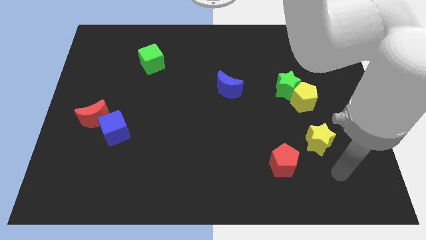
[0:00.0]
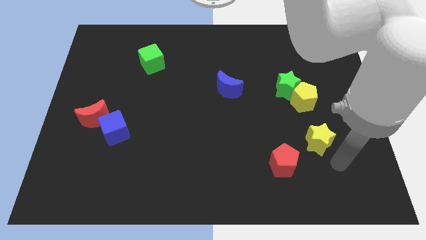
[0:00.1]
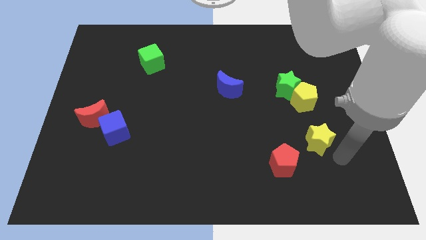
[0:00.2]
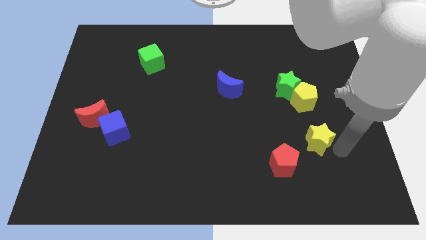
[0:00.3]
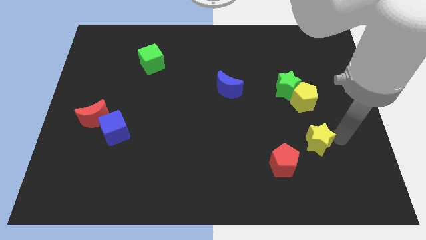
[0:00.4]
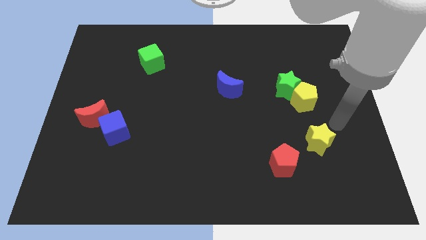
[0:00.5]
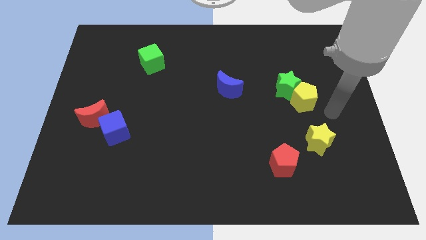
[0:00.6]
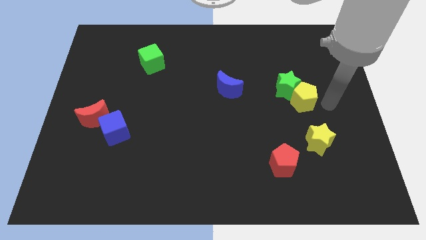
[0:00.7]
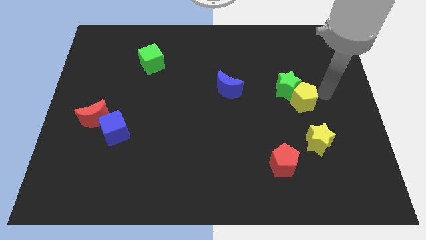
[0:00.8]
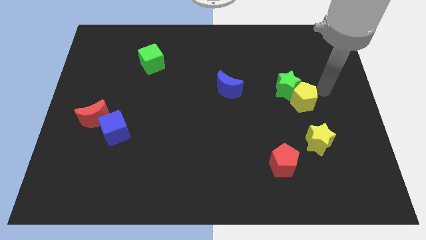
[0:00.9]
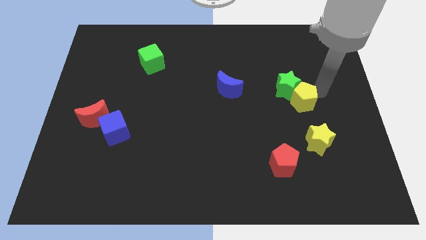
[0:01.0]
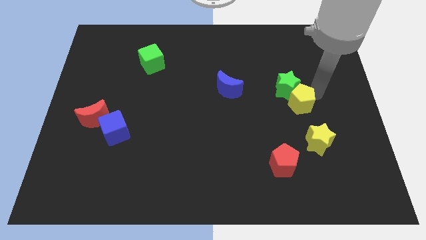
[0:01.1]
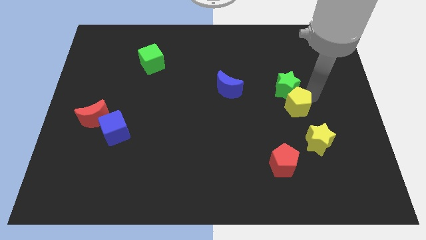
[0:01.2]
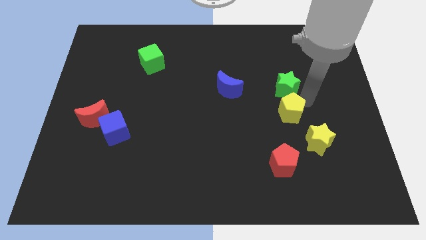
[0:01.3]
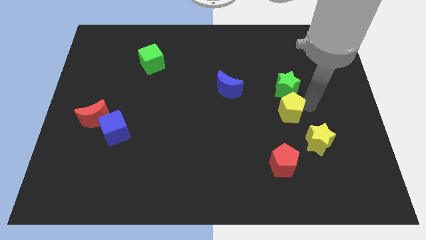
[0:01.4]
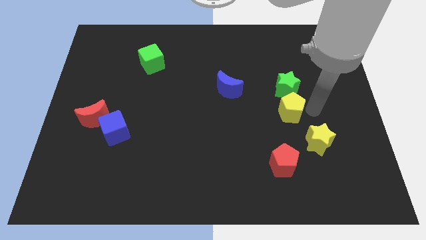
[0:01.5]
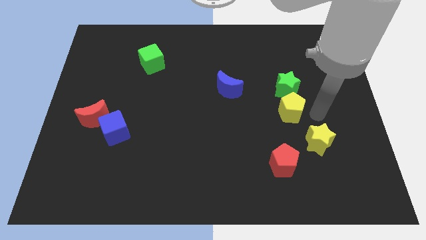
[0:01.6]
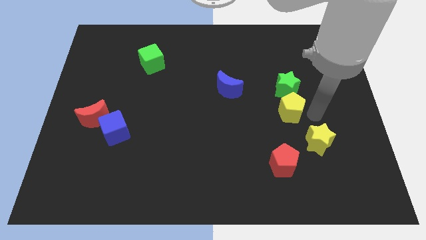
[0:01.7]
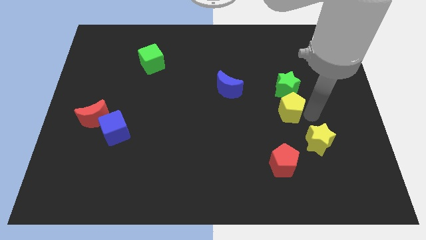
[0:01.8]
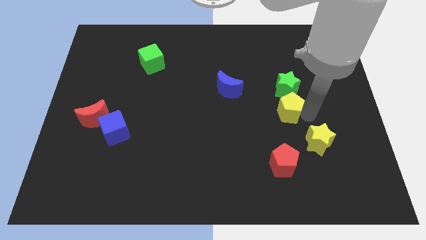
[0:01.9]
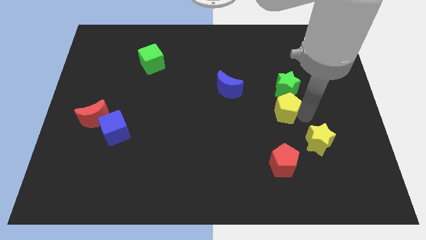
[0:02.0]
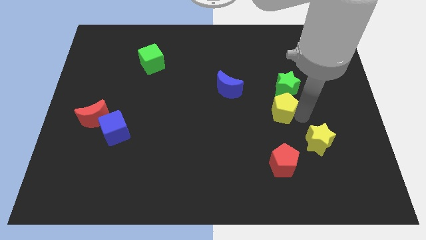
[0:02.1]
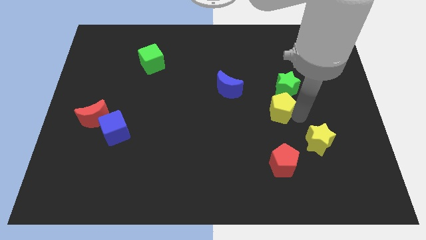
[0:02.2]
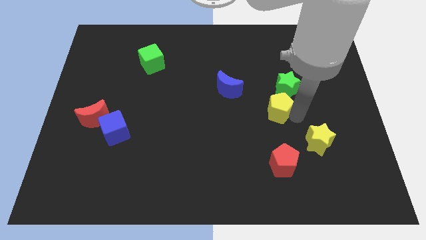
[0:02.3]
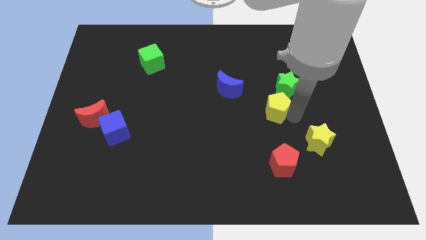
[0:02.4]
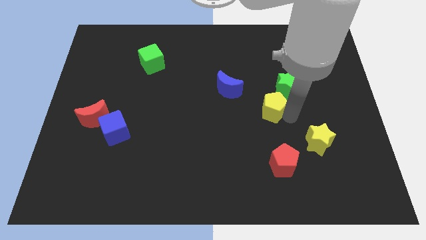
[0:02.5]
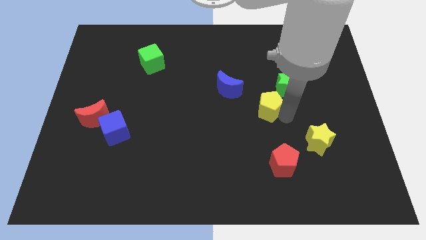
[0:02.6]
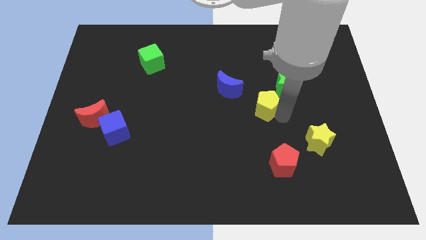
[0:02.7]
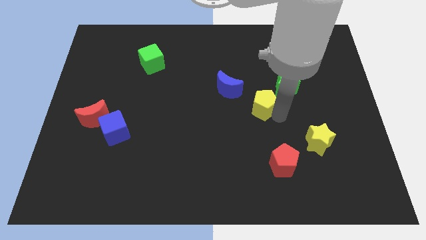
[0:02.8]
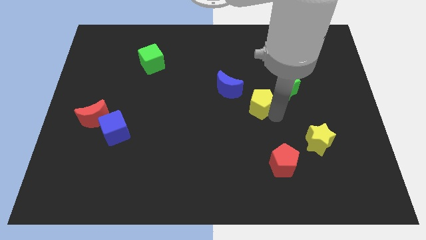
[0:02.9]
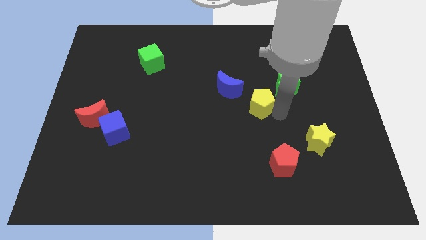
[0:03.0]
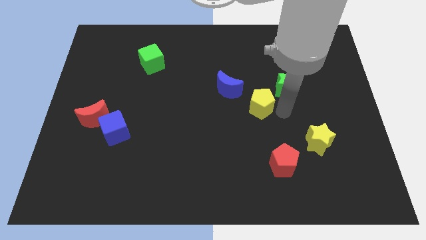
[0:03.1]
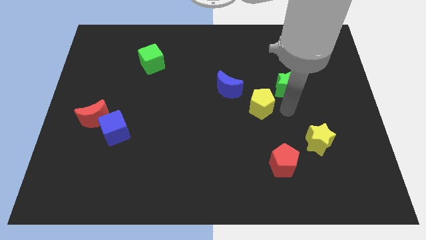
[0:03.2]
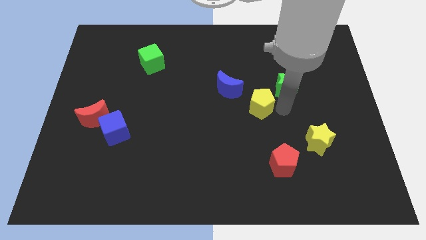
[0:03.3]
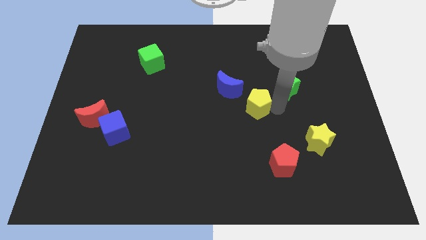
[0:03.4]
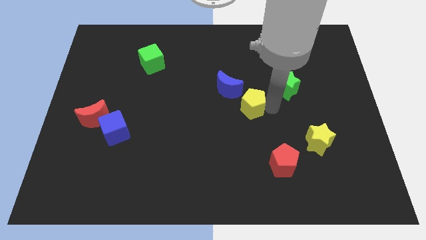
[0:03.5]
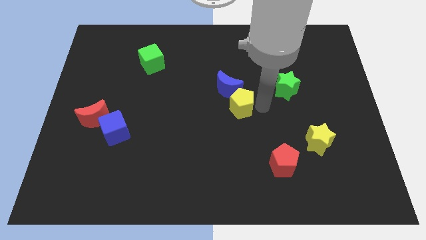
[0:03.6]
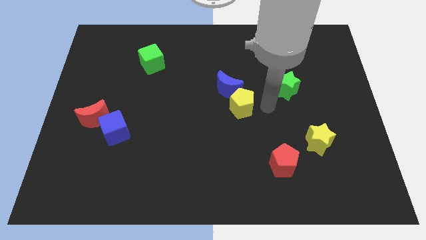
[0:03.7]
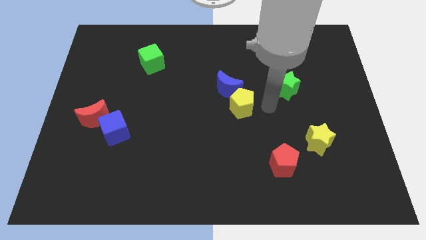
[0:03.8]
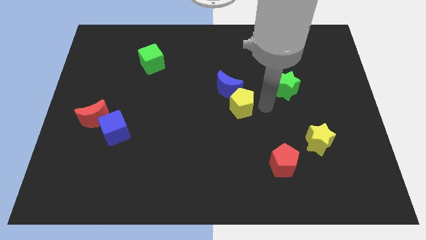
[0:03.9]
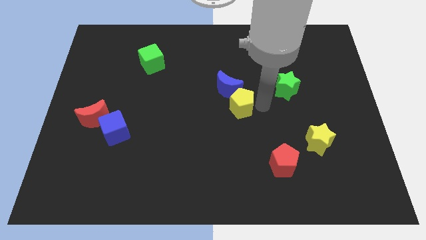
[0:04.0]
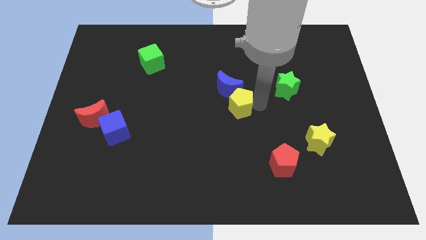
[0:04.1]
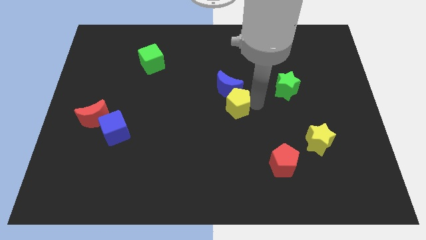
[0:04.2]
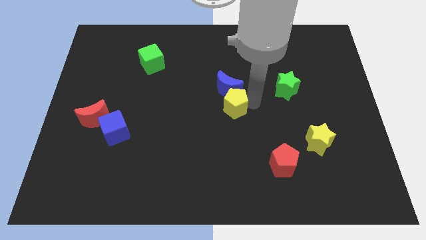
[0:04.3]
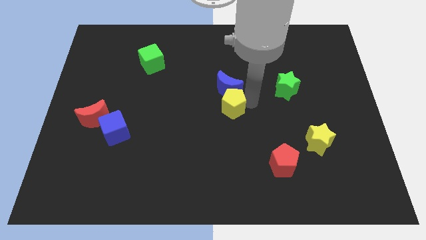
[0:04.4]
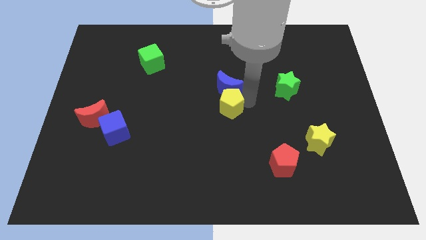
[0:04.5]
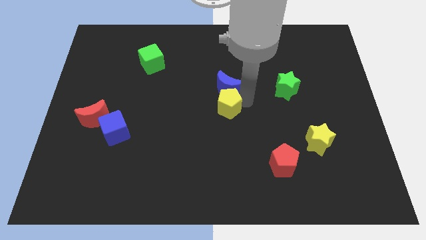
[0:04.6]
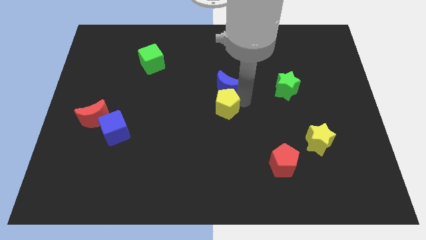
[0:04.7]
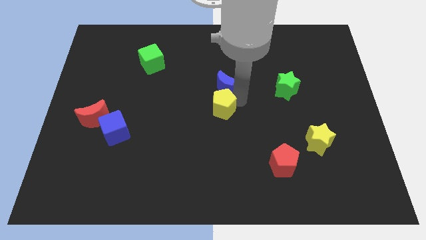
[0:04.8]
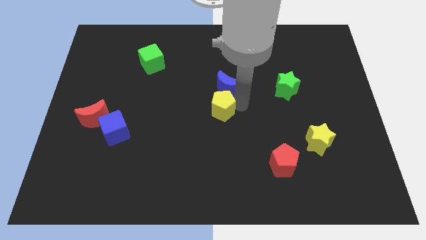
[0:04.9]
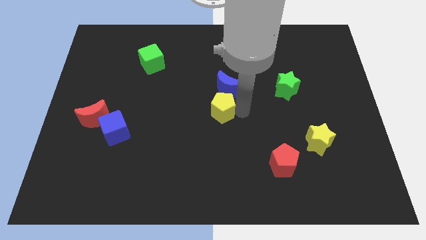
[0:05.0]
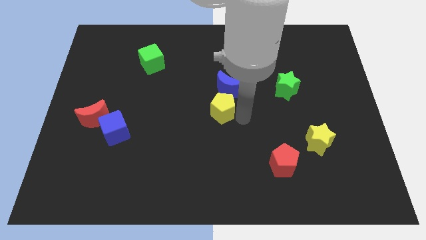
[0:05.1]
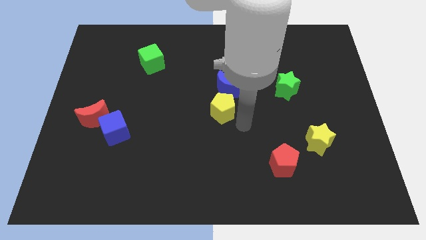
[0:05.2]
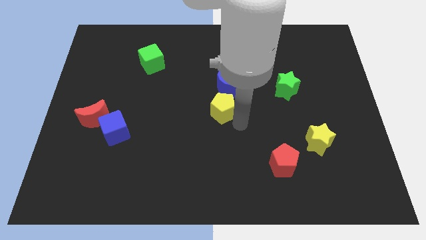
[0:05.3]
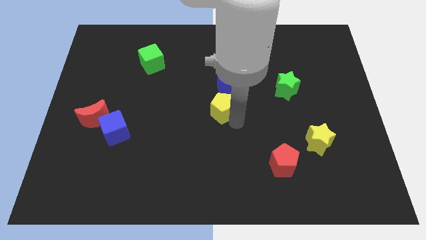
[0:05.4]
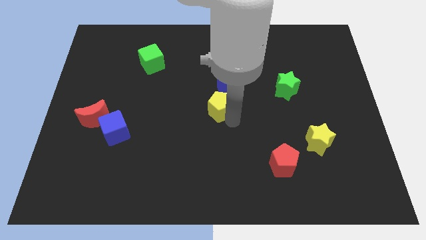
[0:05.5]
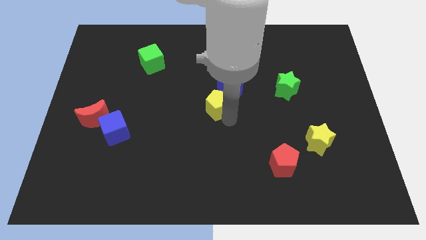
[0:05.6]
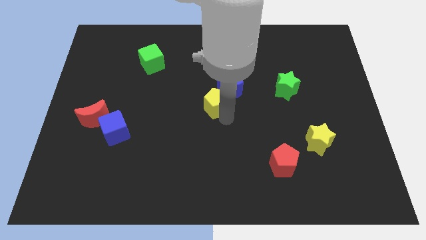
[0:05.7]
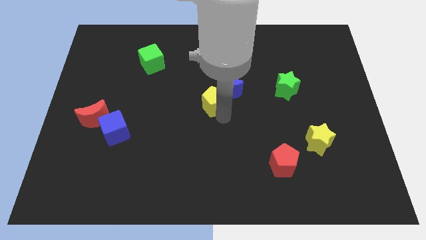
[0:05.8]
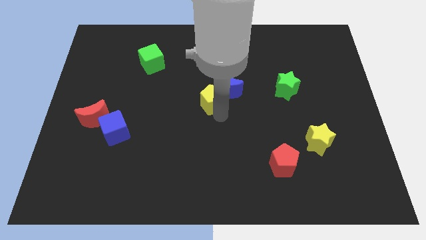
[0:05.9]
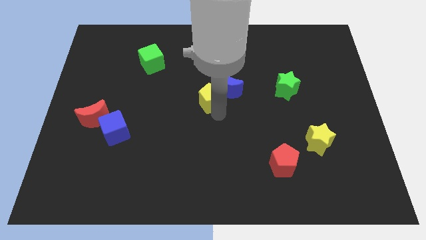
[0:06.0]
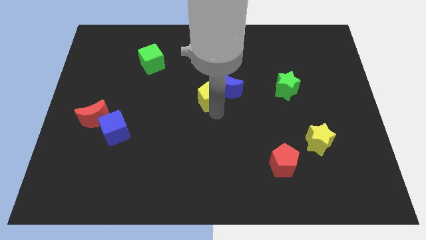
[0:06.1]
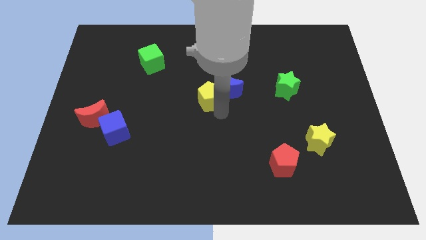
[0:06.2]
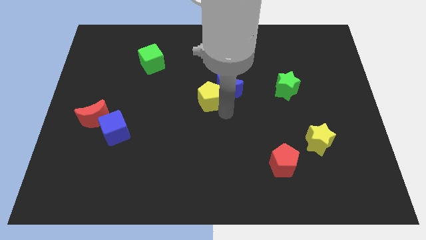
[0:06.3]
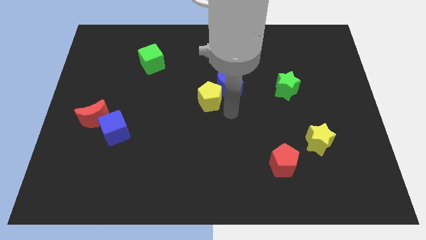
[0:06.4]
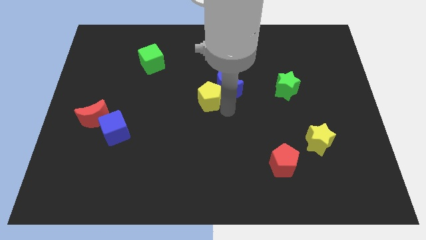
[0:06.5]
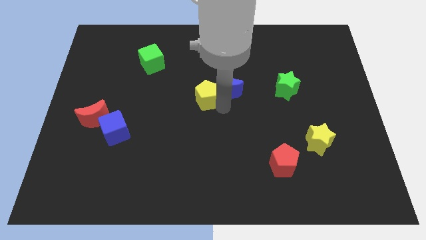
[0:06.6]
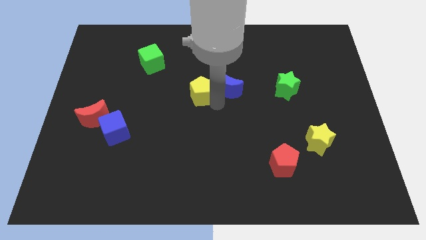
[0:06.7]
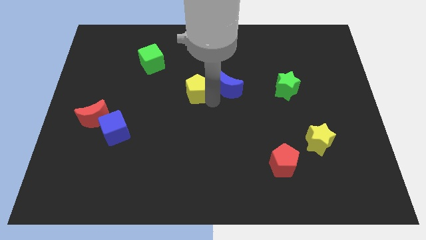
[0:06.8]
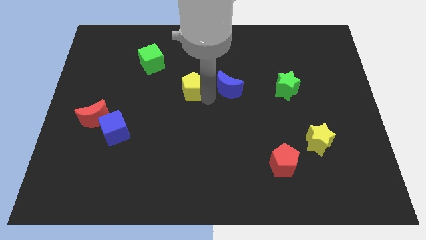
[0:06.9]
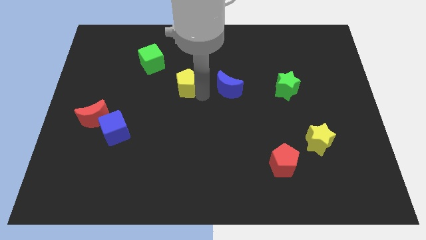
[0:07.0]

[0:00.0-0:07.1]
put the yellow pentagon diagonally down and to the right of the green cube

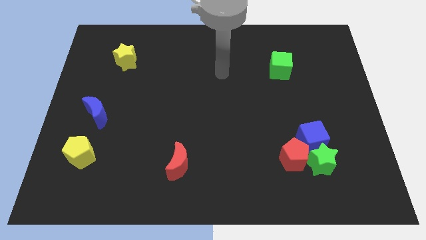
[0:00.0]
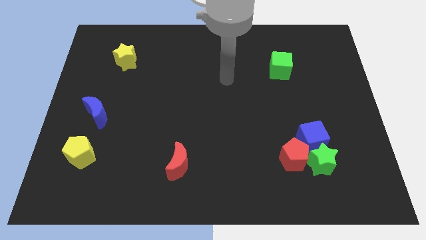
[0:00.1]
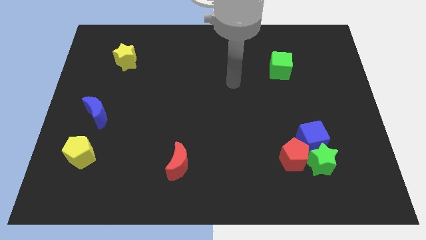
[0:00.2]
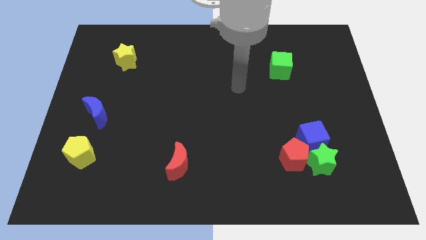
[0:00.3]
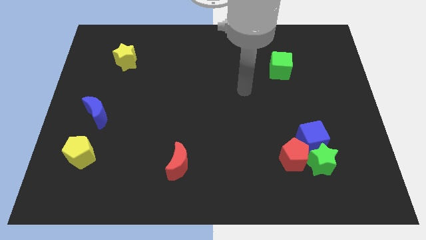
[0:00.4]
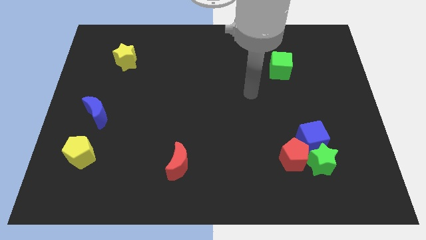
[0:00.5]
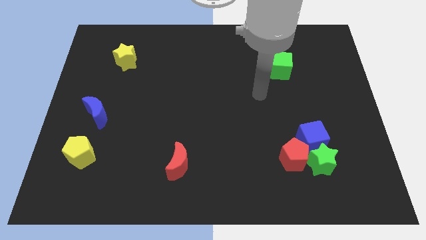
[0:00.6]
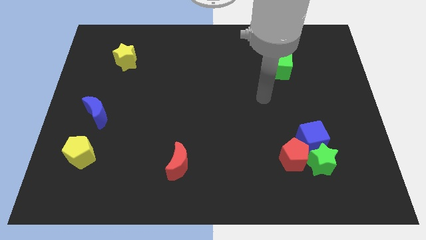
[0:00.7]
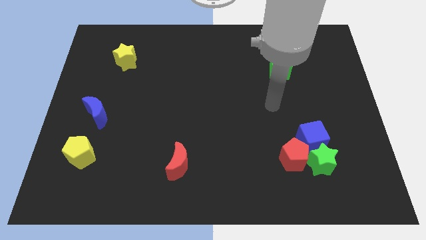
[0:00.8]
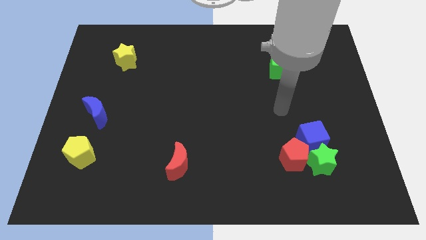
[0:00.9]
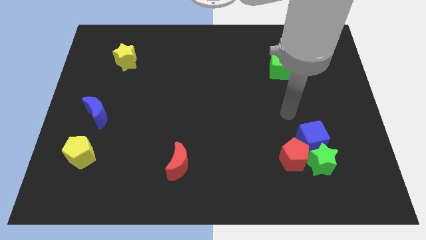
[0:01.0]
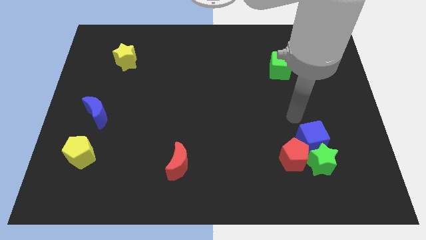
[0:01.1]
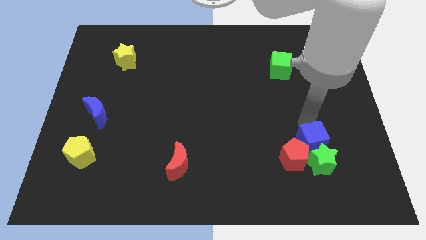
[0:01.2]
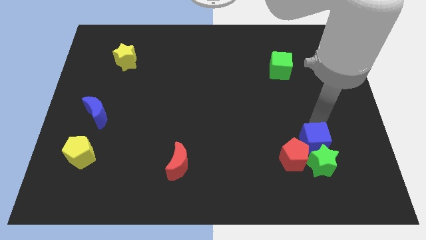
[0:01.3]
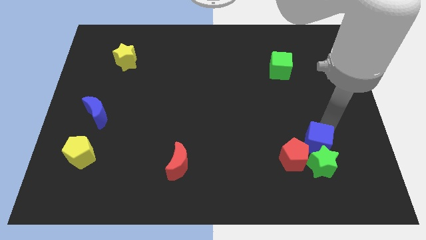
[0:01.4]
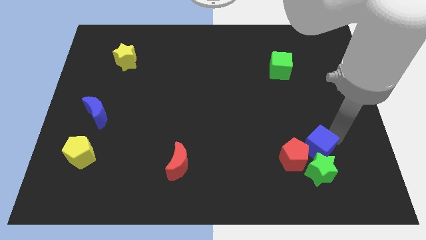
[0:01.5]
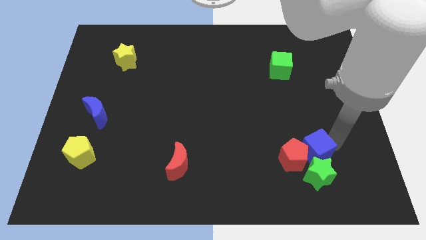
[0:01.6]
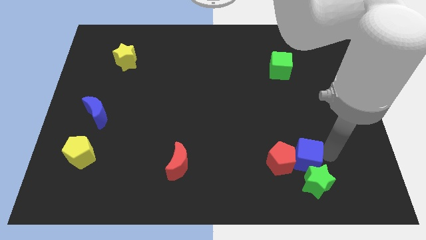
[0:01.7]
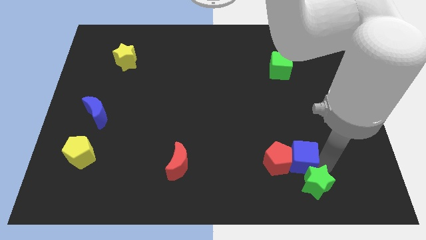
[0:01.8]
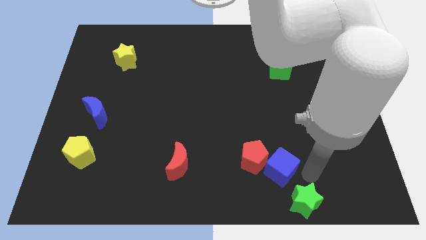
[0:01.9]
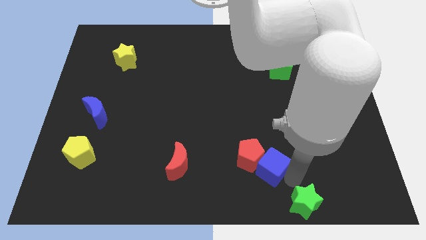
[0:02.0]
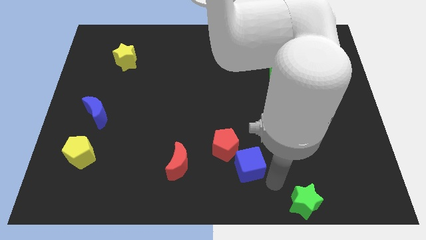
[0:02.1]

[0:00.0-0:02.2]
push the red pentagon diagonally up and to the right of the red moon
